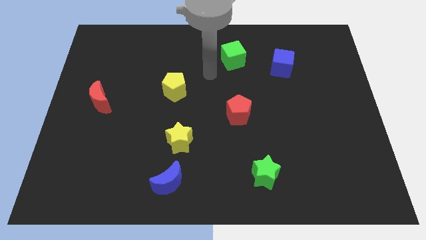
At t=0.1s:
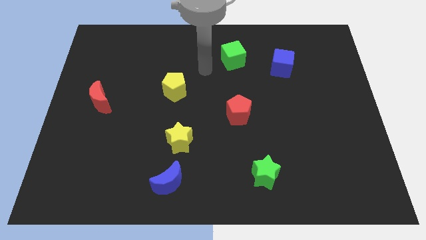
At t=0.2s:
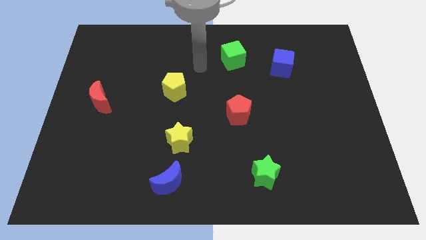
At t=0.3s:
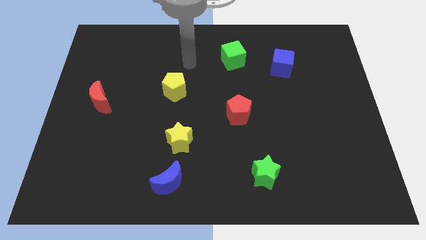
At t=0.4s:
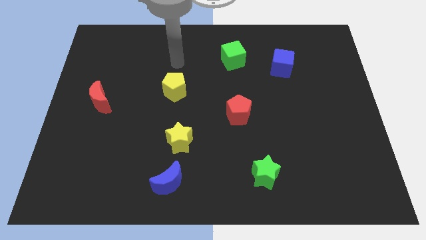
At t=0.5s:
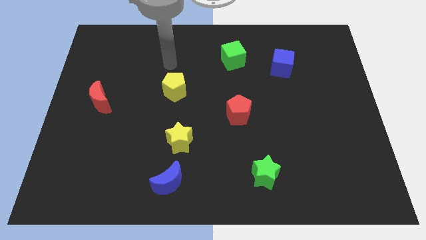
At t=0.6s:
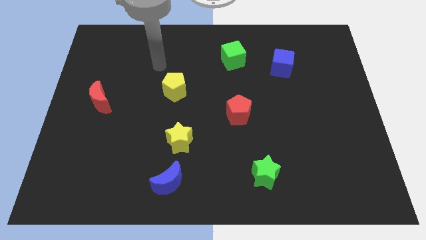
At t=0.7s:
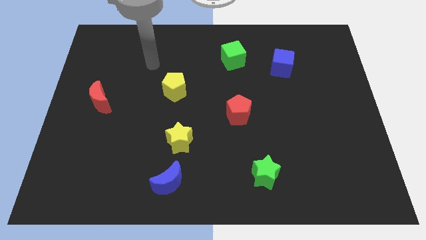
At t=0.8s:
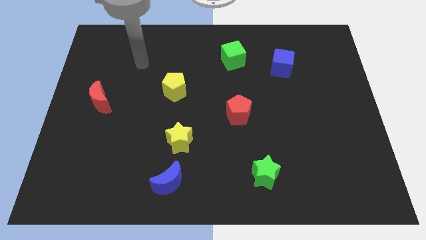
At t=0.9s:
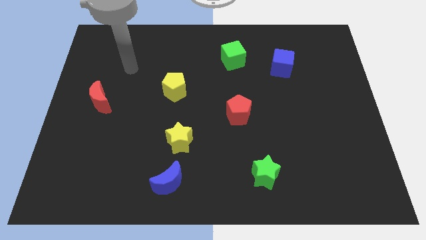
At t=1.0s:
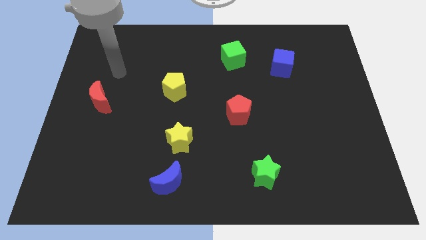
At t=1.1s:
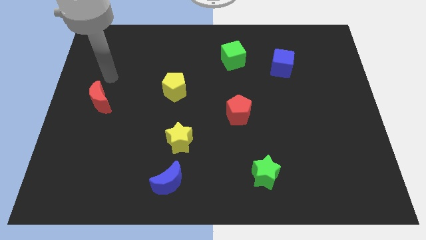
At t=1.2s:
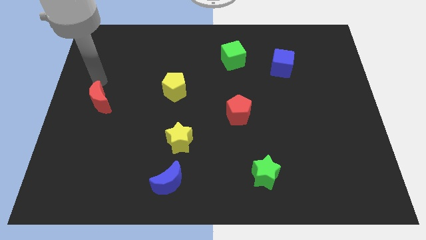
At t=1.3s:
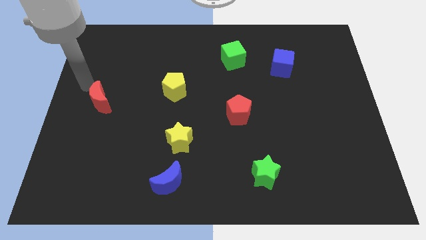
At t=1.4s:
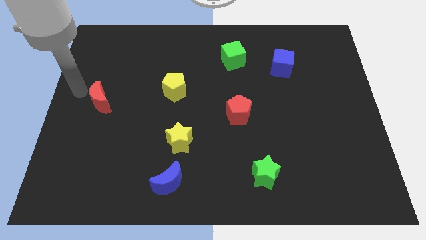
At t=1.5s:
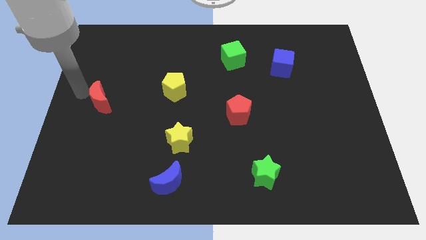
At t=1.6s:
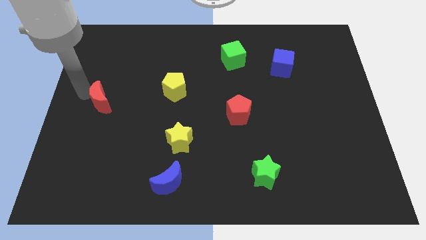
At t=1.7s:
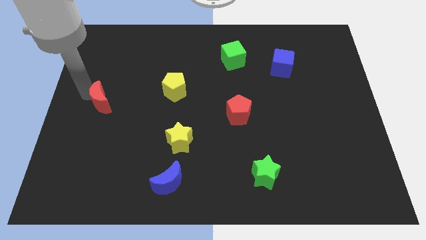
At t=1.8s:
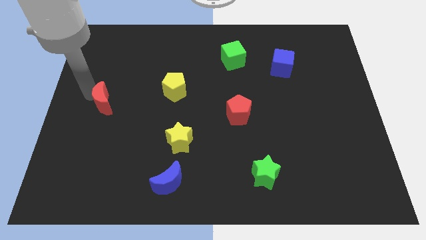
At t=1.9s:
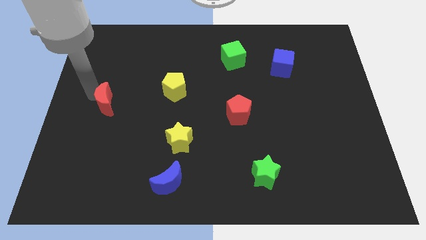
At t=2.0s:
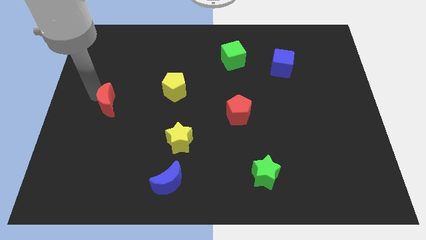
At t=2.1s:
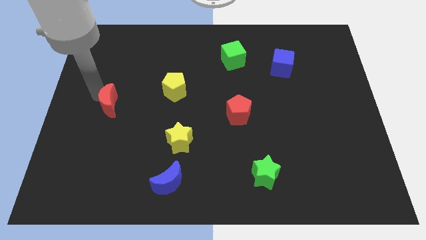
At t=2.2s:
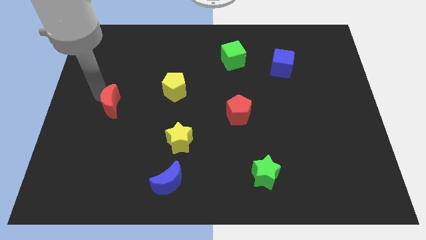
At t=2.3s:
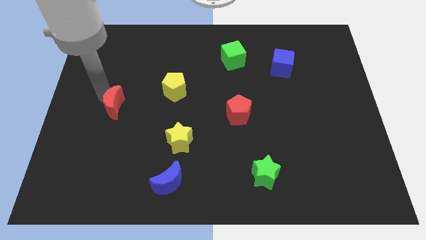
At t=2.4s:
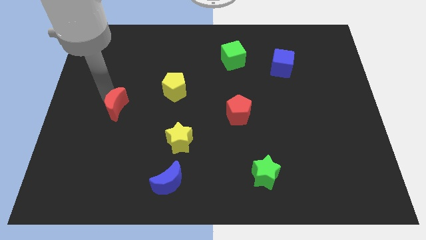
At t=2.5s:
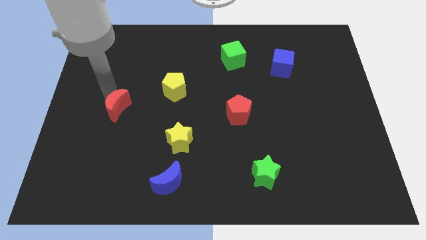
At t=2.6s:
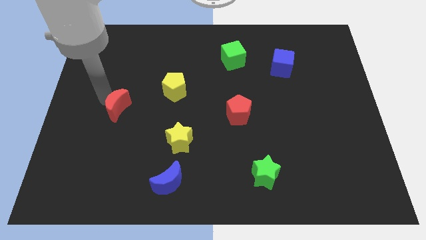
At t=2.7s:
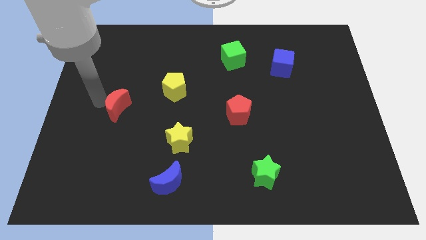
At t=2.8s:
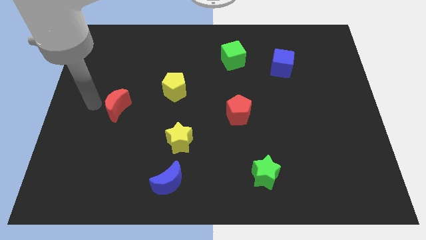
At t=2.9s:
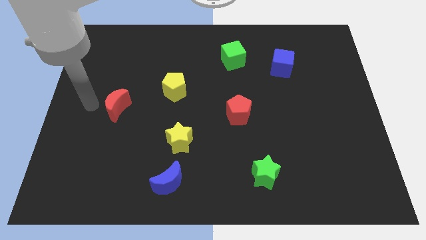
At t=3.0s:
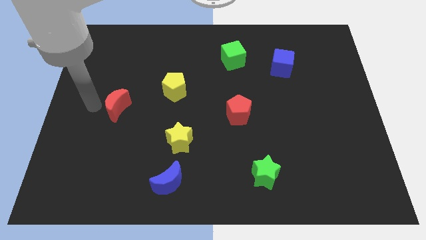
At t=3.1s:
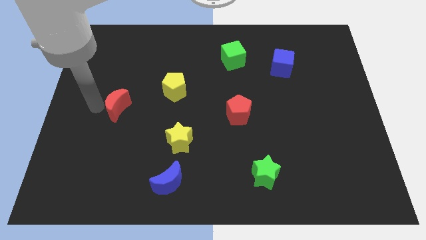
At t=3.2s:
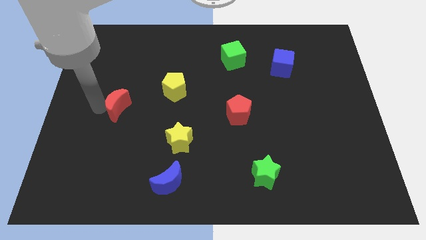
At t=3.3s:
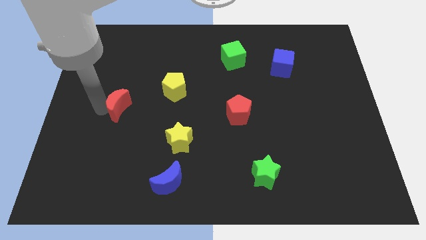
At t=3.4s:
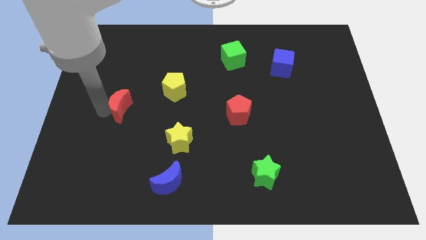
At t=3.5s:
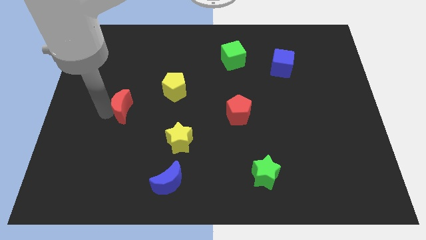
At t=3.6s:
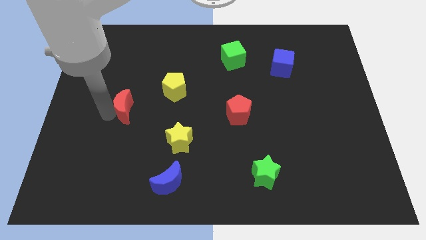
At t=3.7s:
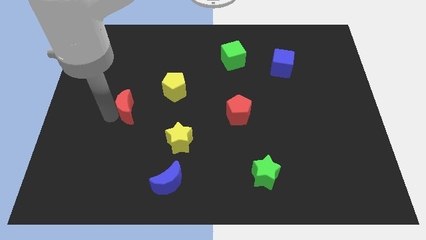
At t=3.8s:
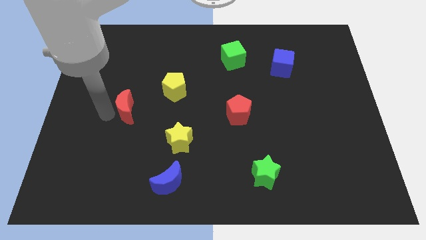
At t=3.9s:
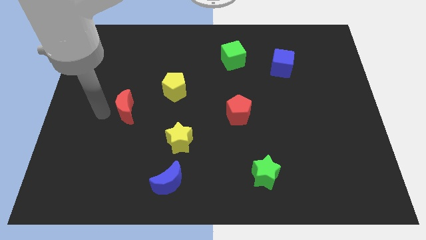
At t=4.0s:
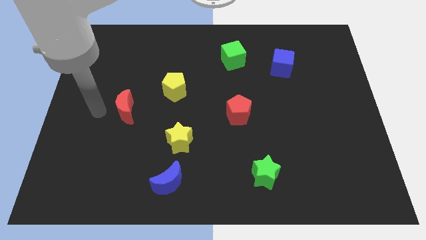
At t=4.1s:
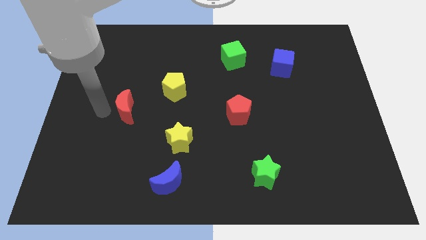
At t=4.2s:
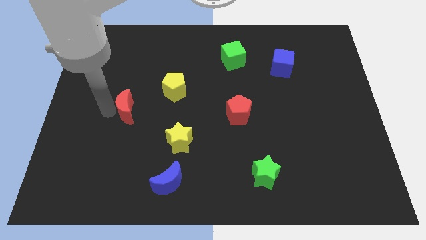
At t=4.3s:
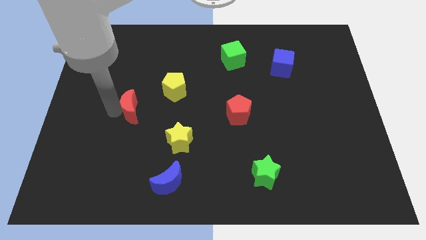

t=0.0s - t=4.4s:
move the red moon a little right

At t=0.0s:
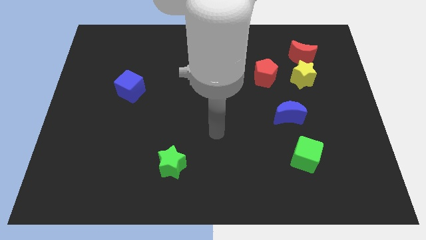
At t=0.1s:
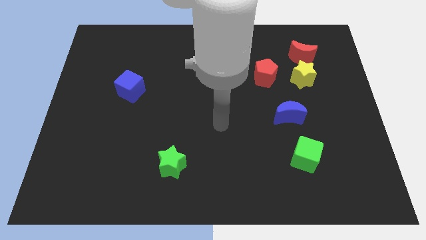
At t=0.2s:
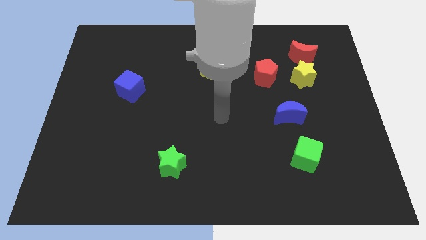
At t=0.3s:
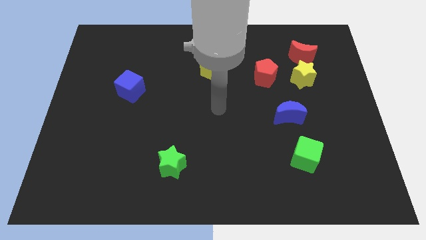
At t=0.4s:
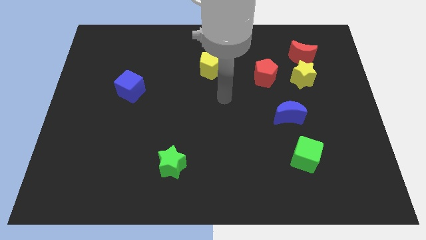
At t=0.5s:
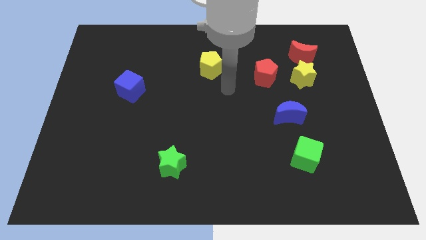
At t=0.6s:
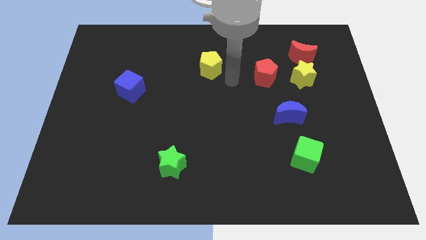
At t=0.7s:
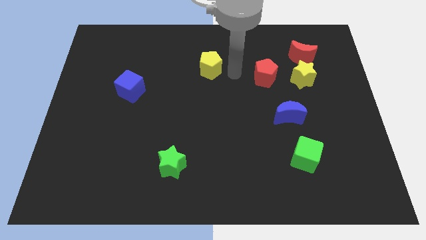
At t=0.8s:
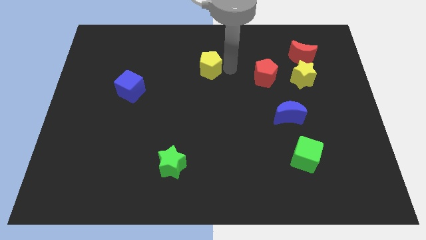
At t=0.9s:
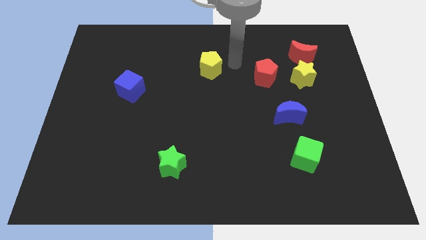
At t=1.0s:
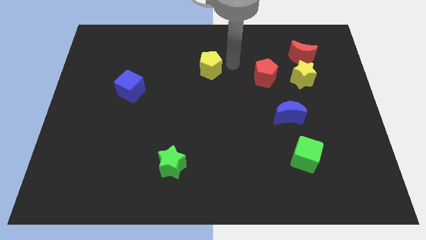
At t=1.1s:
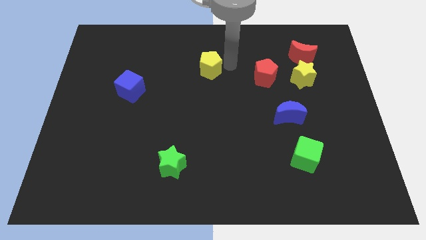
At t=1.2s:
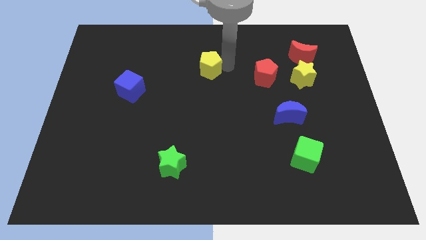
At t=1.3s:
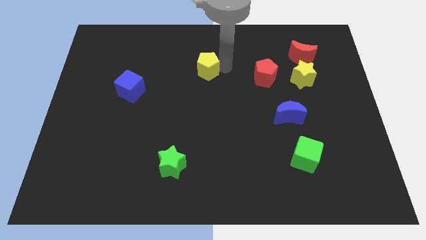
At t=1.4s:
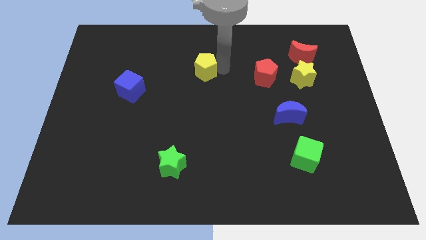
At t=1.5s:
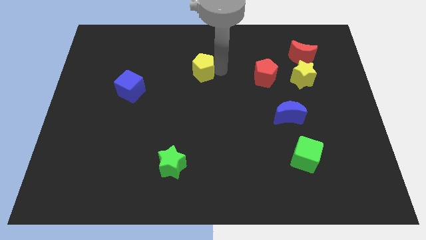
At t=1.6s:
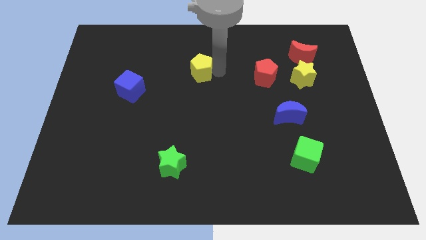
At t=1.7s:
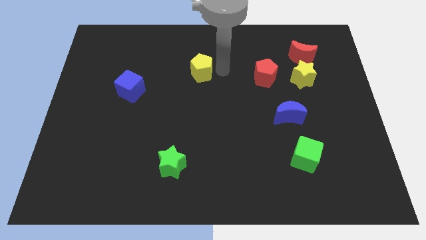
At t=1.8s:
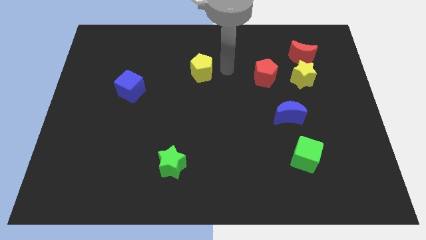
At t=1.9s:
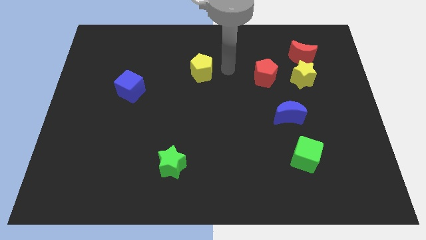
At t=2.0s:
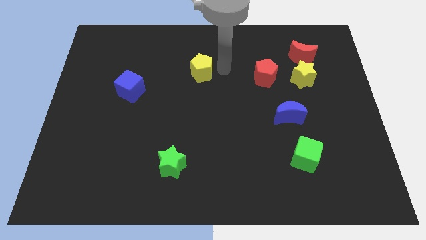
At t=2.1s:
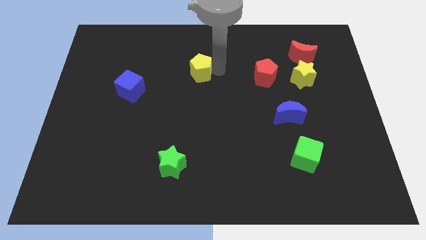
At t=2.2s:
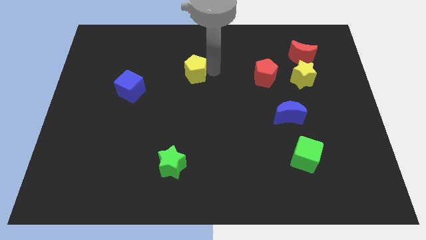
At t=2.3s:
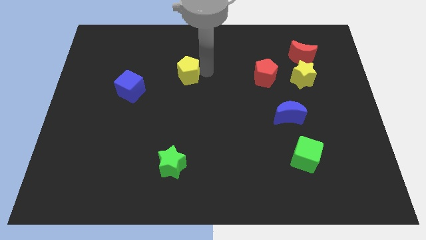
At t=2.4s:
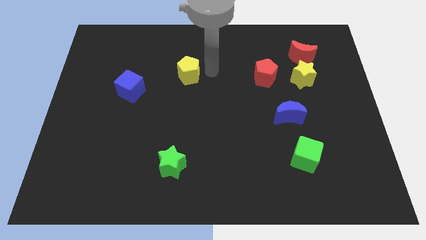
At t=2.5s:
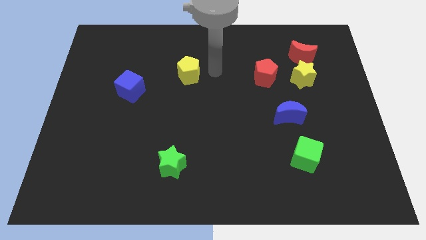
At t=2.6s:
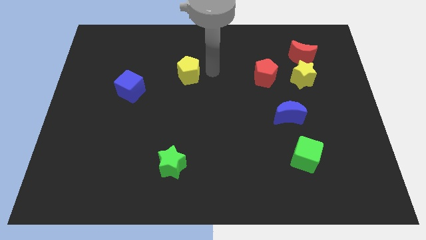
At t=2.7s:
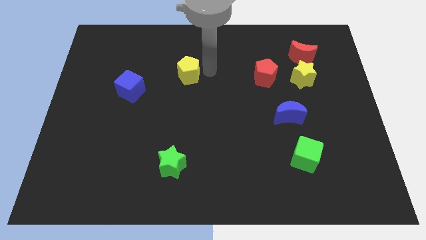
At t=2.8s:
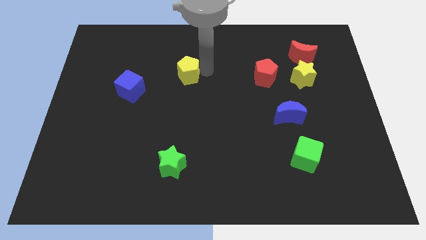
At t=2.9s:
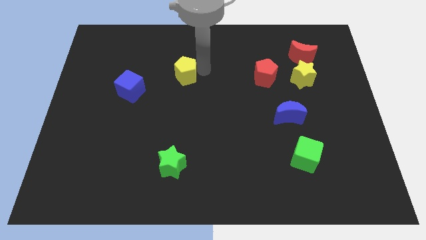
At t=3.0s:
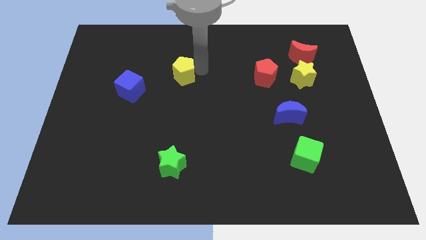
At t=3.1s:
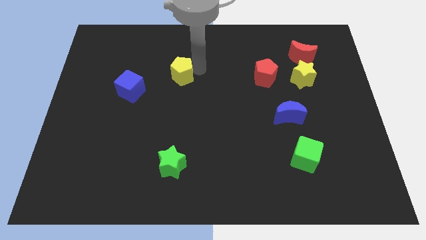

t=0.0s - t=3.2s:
slide the yellow pentagon left a bit

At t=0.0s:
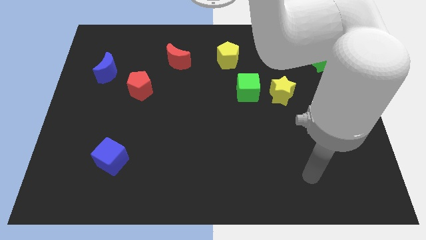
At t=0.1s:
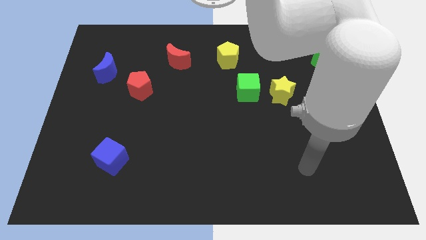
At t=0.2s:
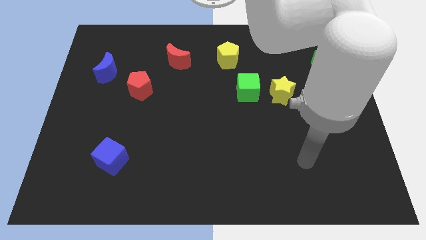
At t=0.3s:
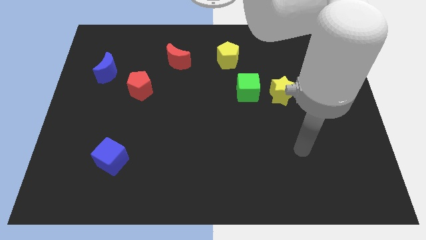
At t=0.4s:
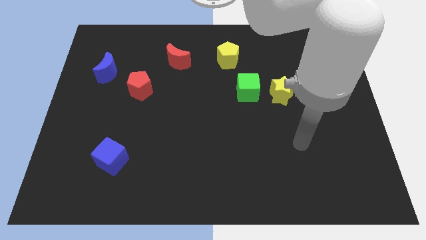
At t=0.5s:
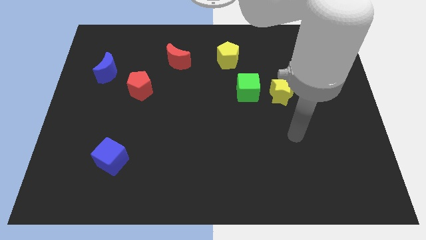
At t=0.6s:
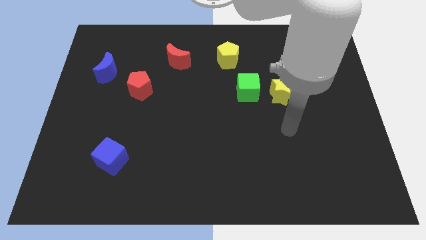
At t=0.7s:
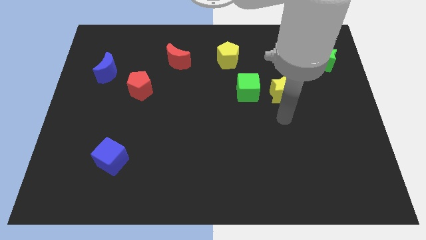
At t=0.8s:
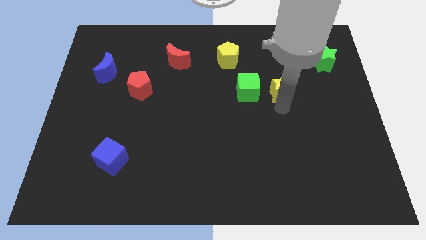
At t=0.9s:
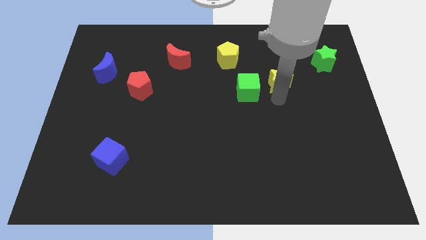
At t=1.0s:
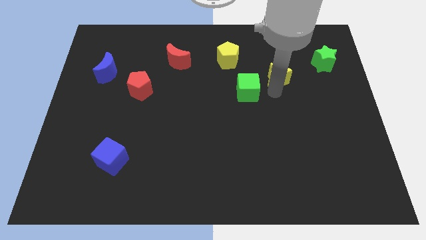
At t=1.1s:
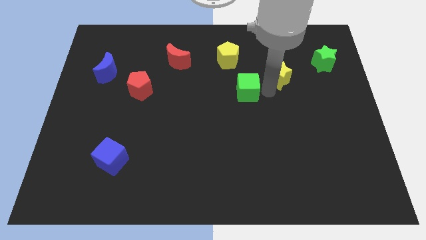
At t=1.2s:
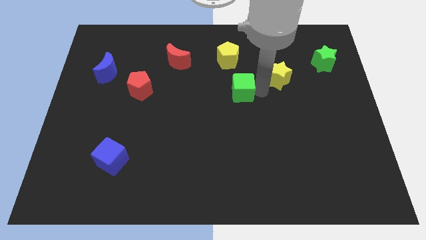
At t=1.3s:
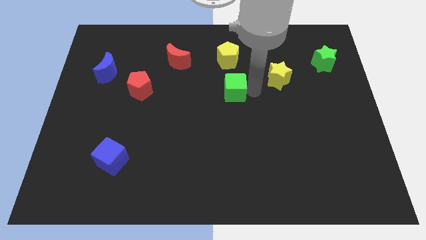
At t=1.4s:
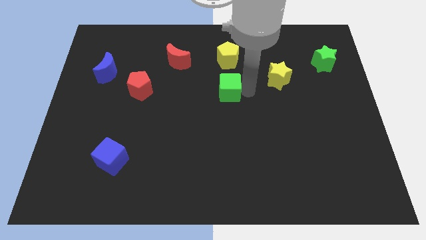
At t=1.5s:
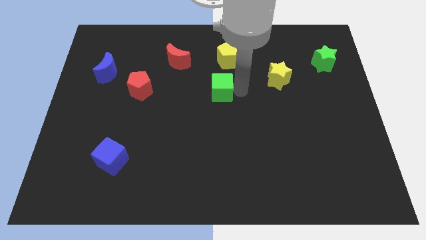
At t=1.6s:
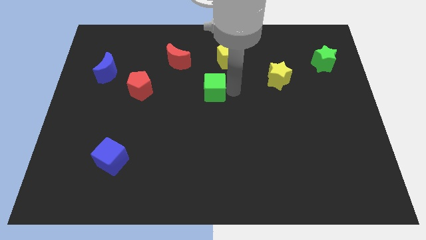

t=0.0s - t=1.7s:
slightly slide the green cube to the left
